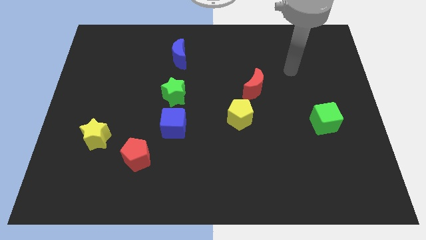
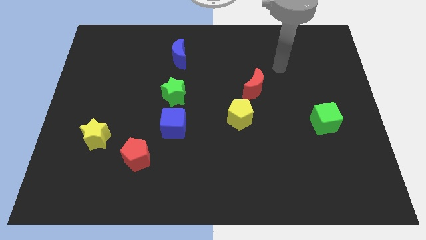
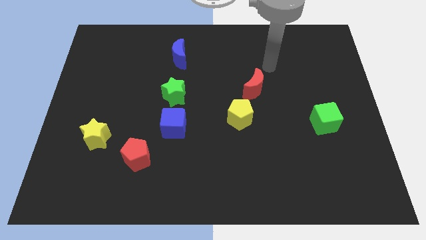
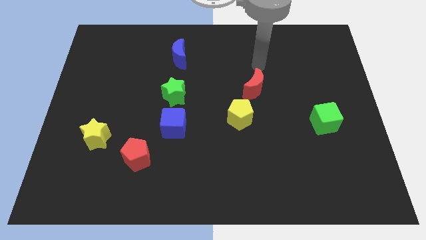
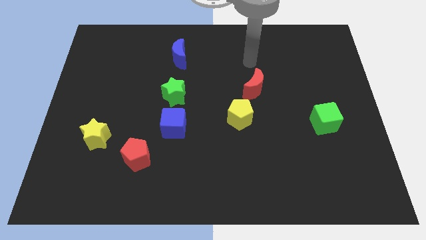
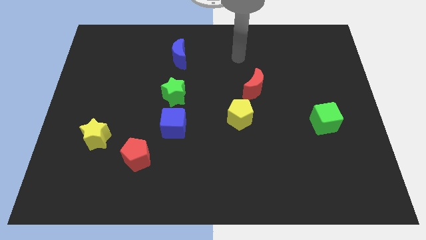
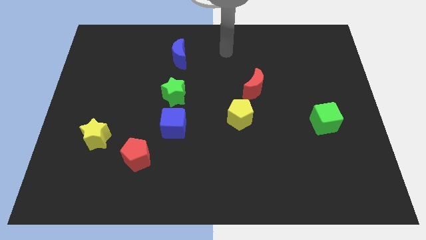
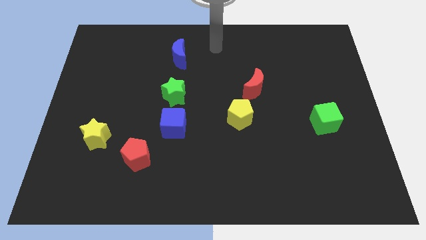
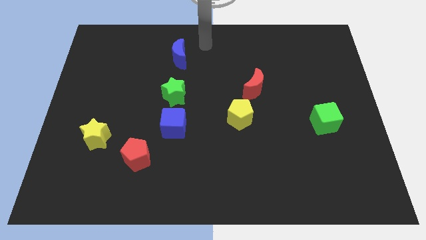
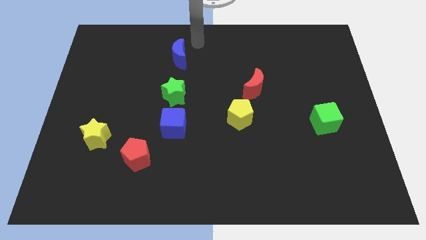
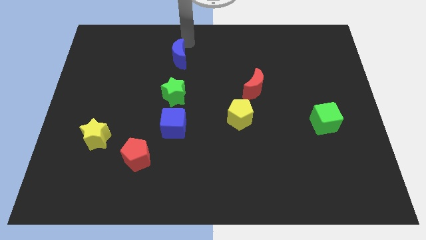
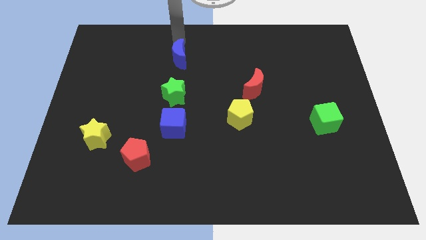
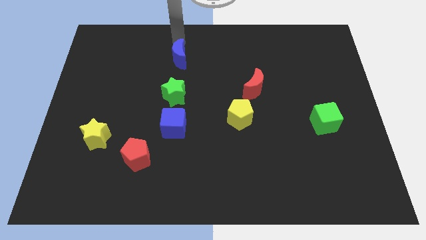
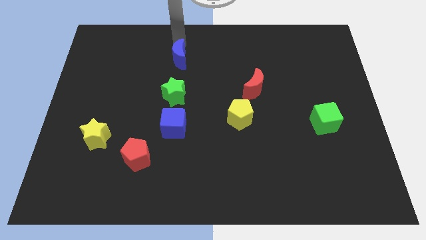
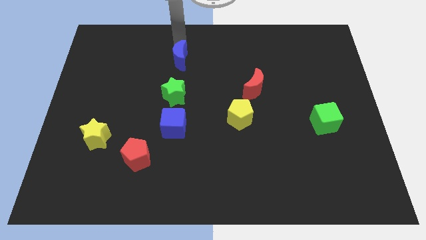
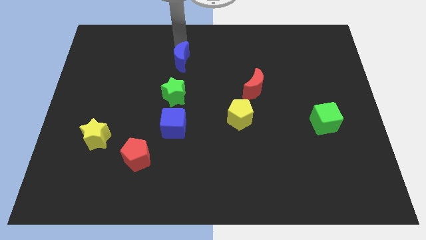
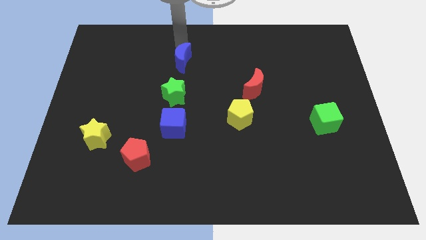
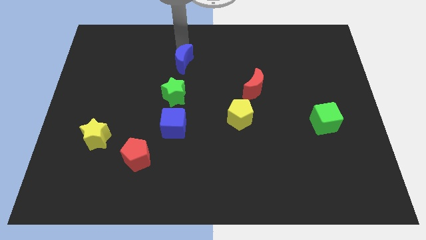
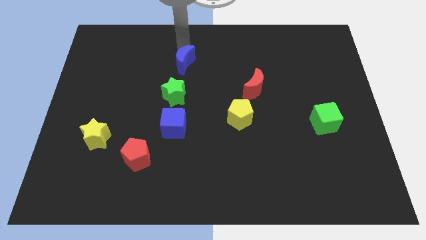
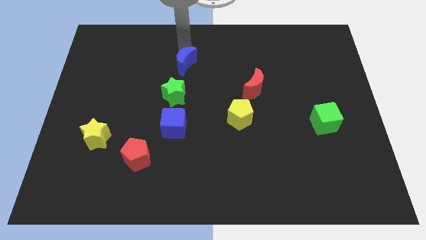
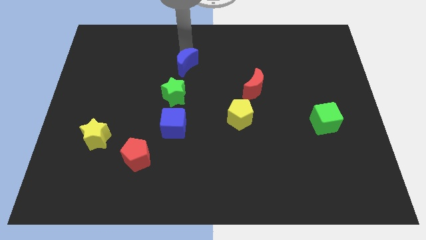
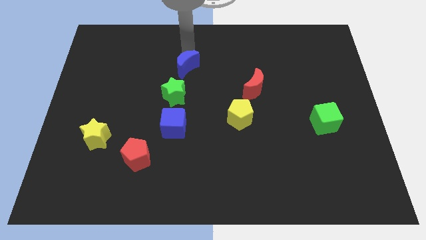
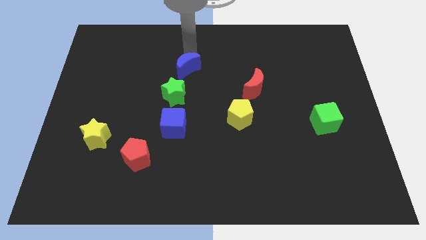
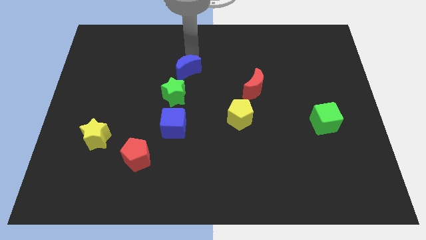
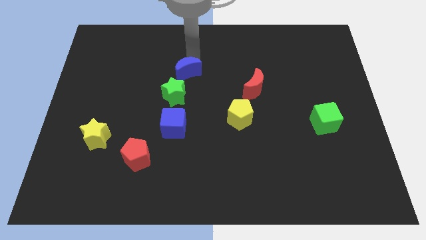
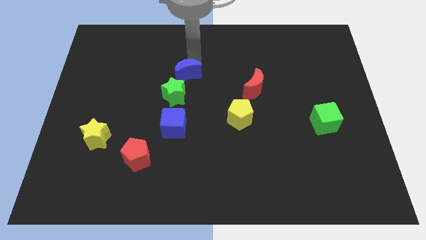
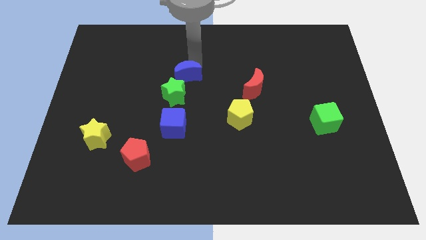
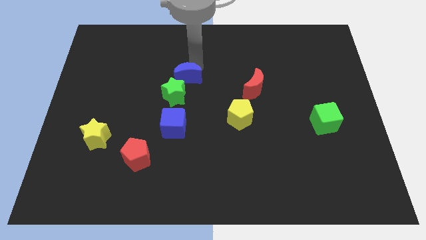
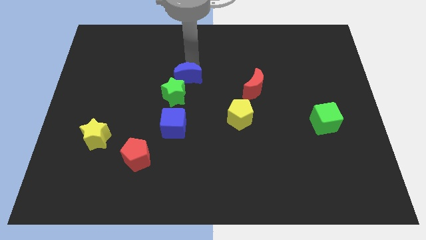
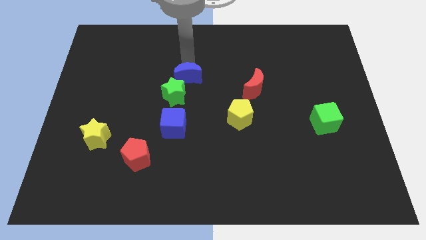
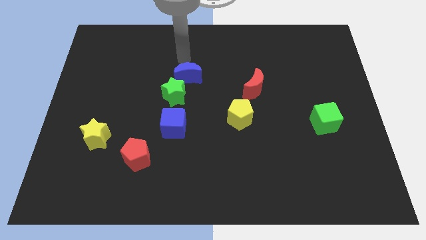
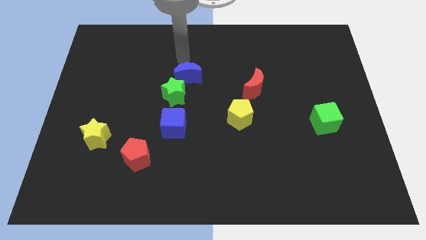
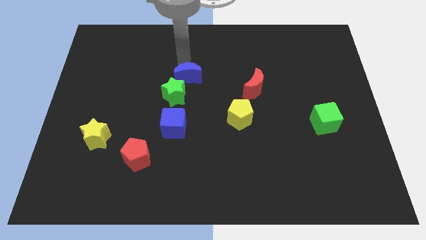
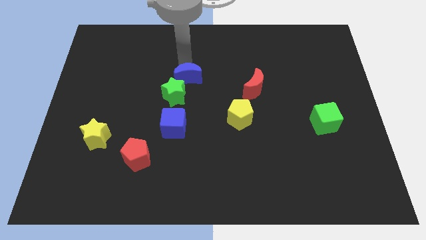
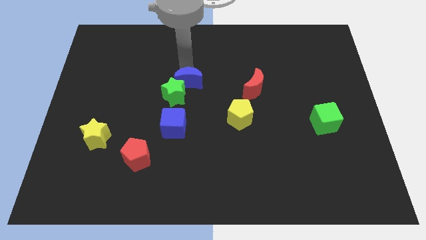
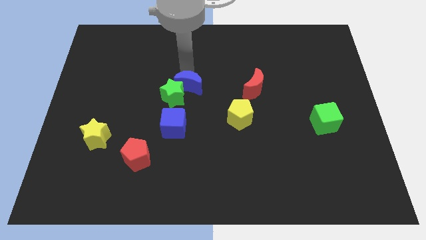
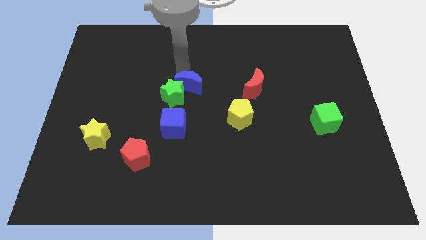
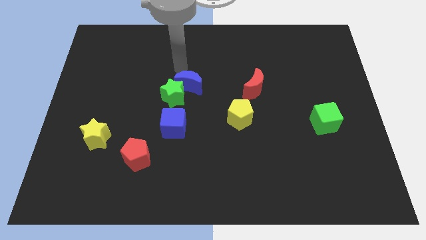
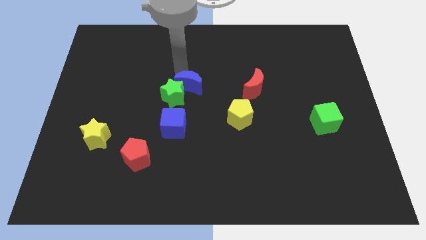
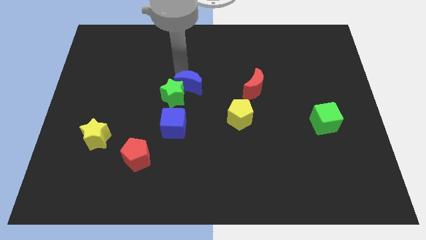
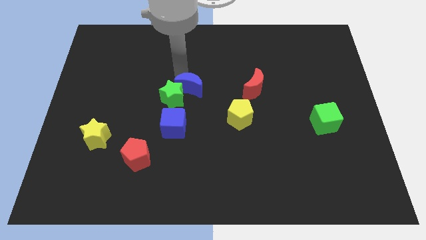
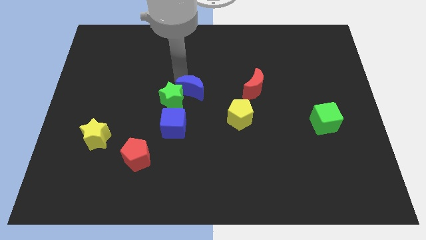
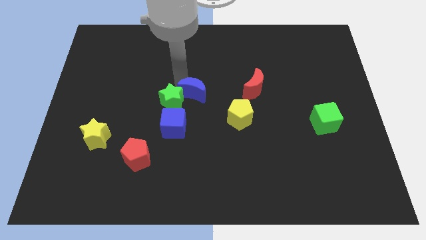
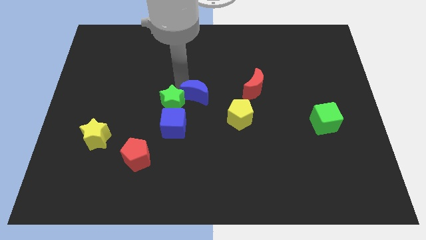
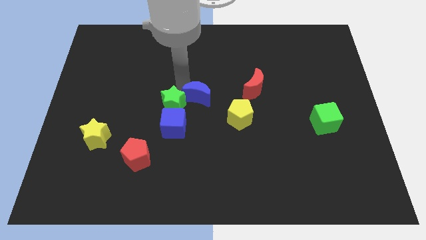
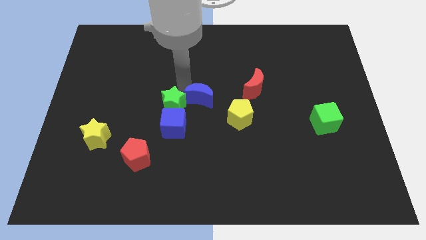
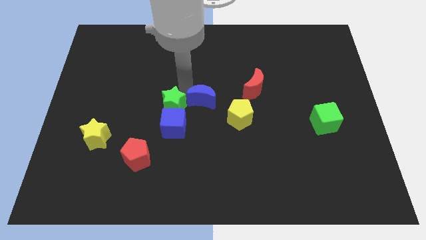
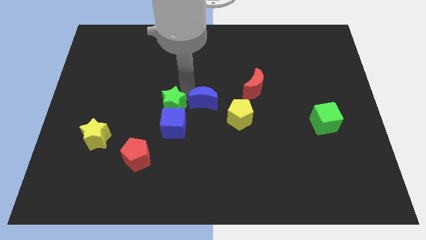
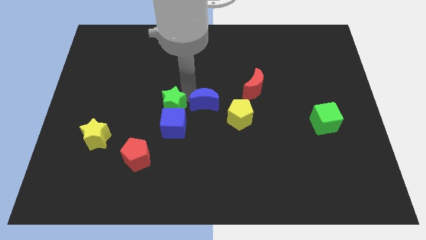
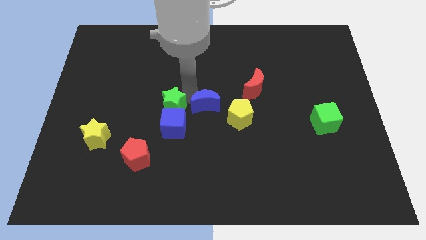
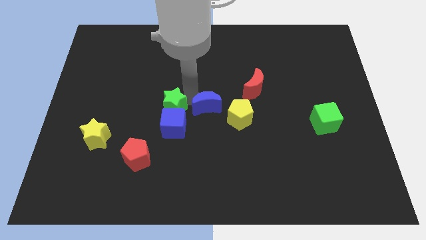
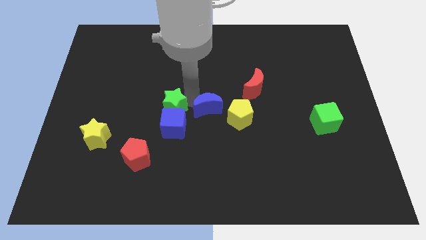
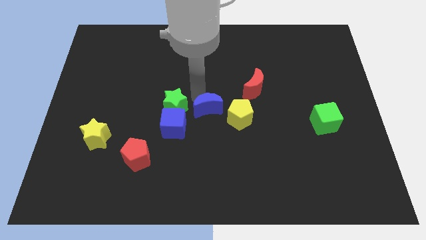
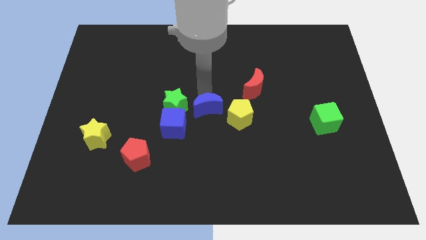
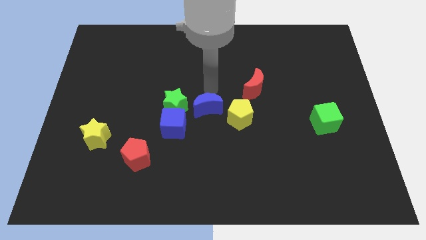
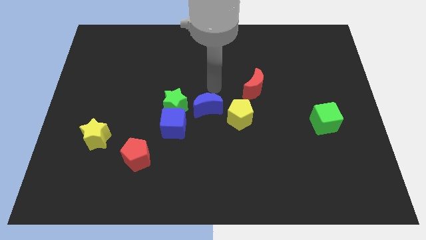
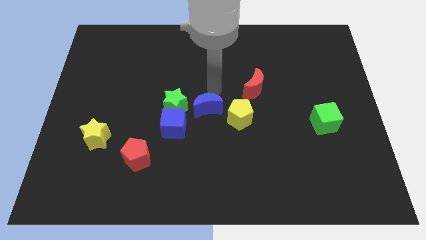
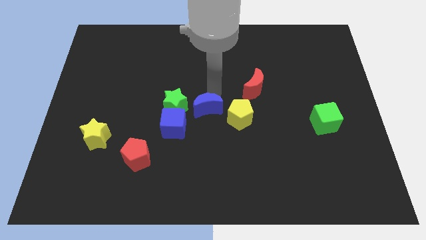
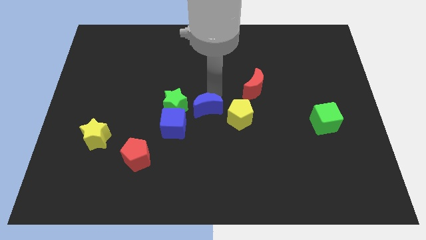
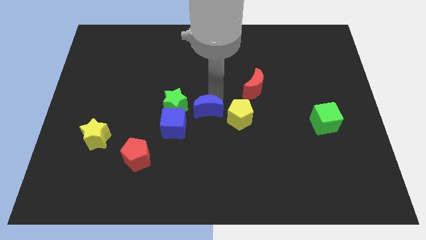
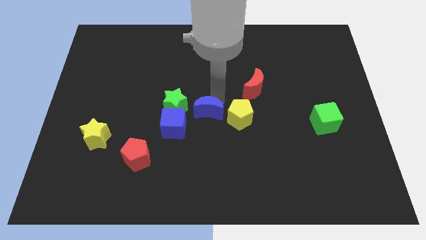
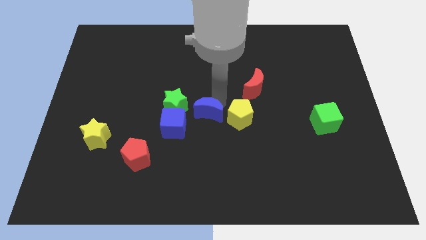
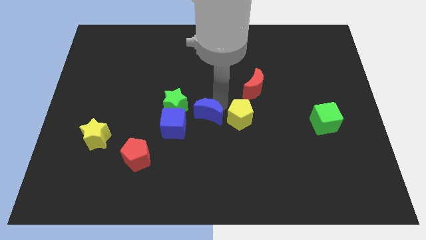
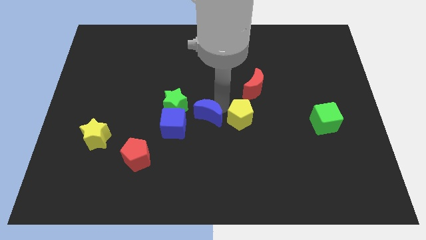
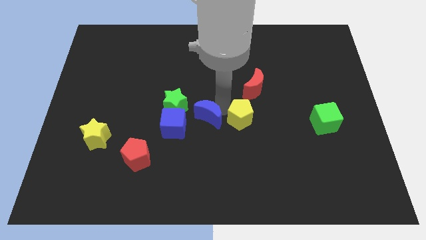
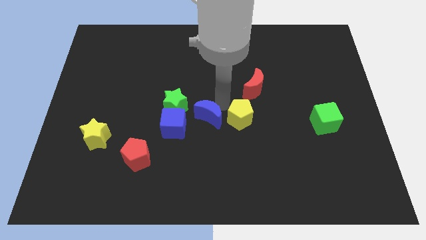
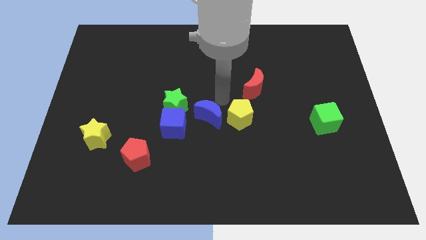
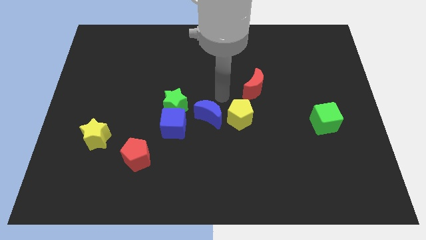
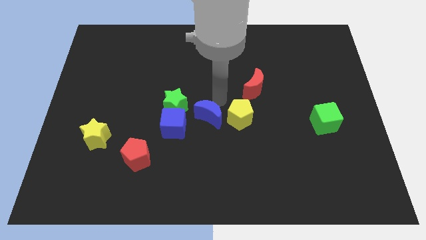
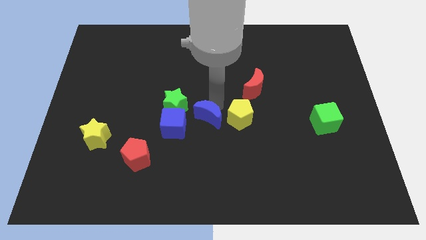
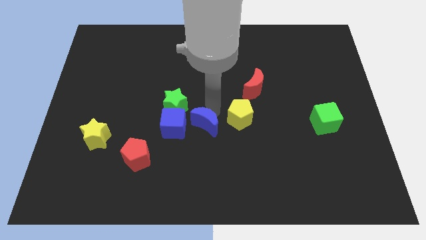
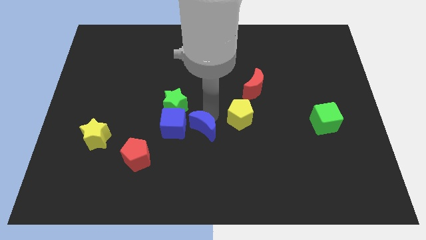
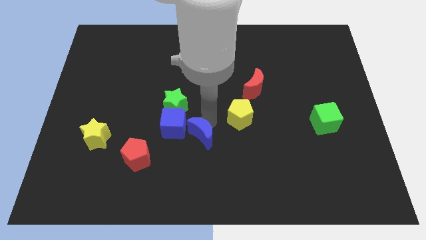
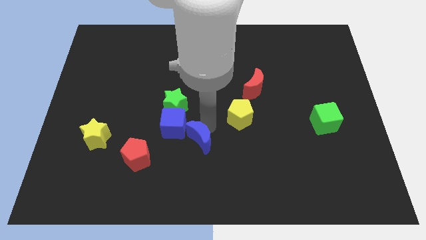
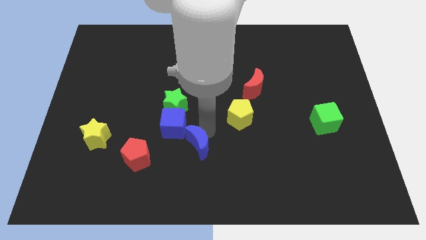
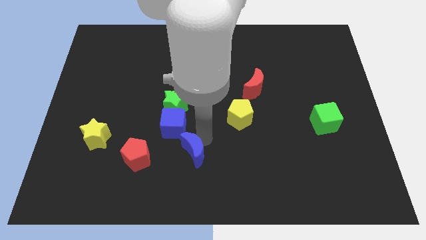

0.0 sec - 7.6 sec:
move the blue moon below the blue cube

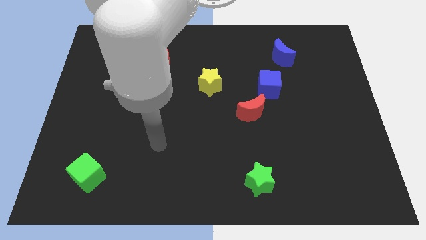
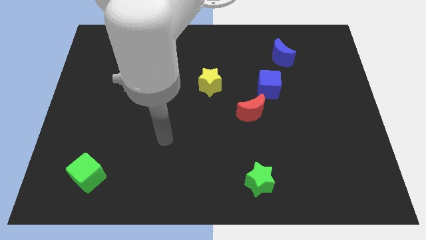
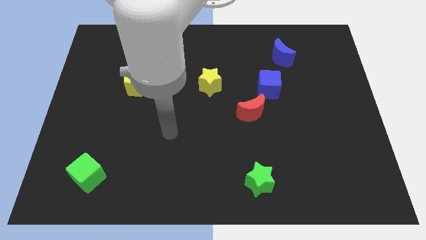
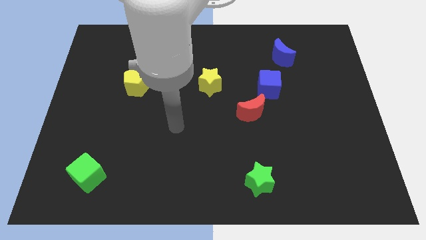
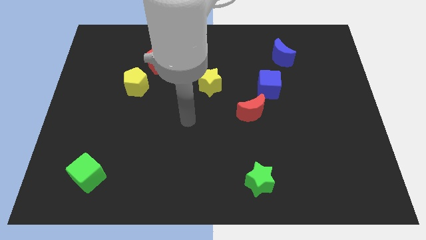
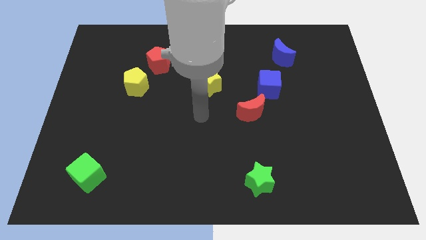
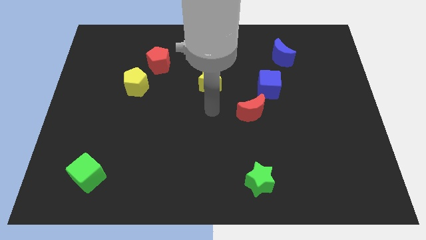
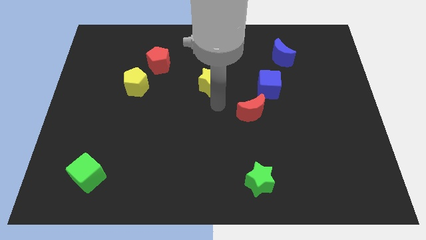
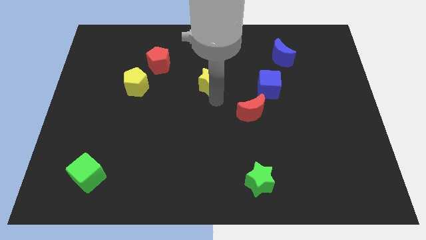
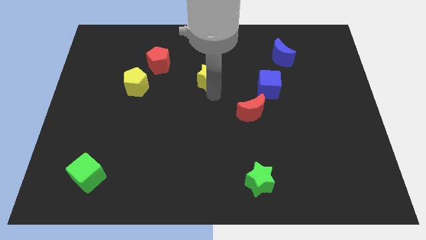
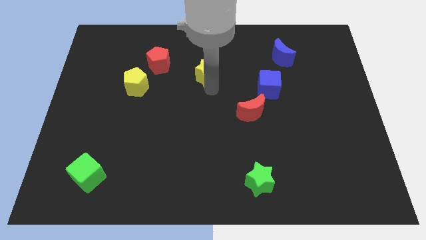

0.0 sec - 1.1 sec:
push the yellow star to the right of the red pentagon
